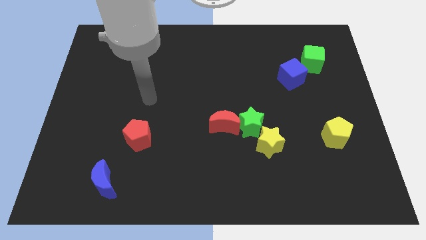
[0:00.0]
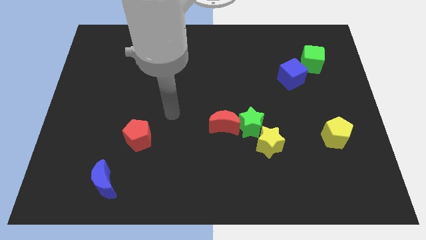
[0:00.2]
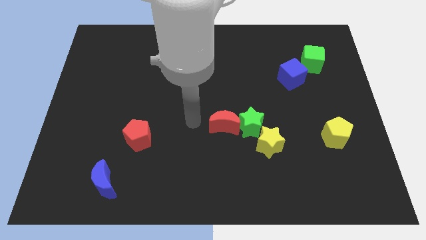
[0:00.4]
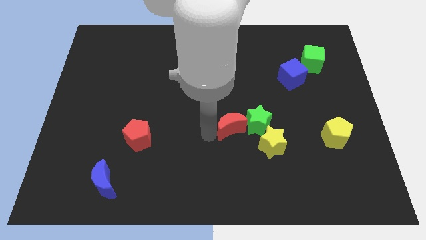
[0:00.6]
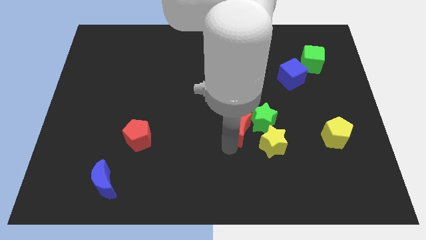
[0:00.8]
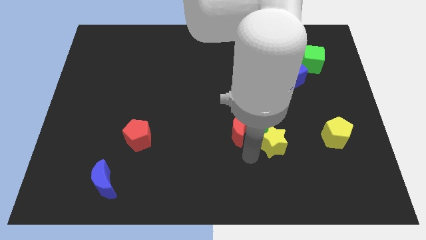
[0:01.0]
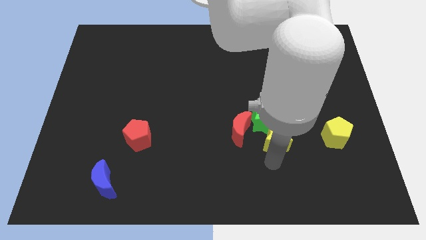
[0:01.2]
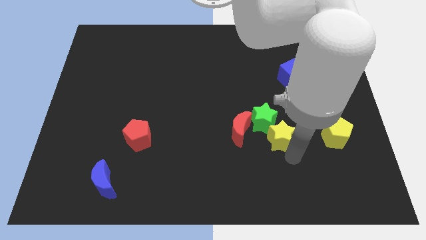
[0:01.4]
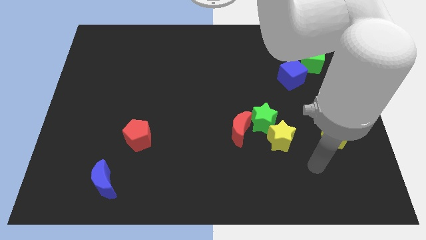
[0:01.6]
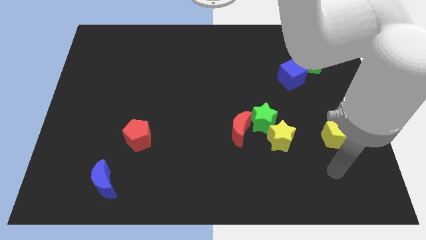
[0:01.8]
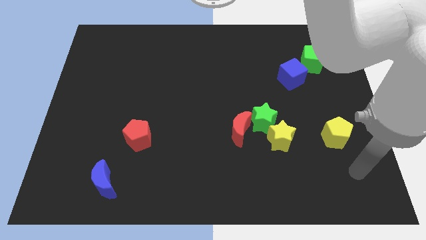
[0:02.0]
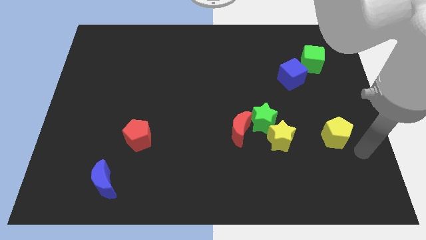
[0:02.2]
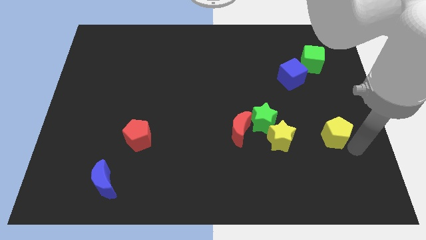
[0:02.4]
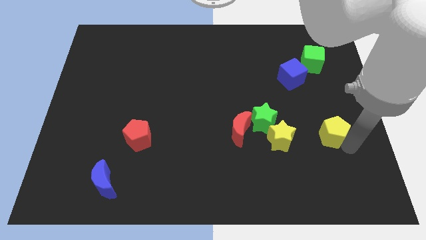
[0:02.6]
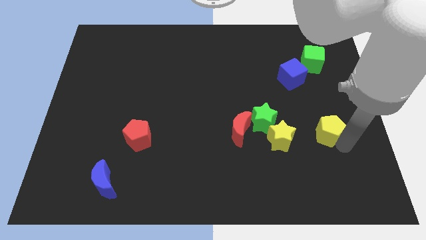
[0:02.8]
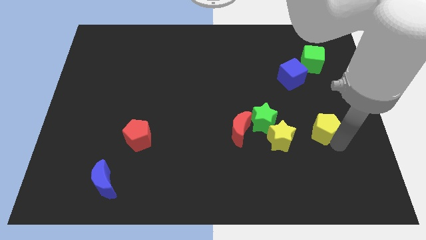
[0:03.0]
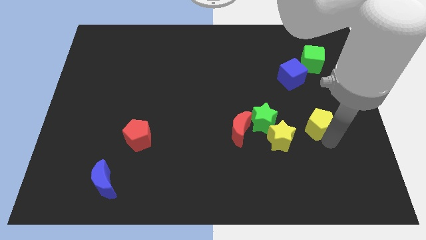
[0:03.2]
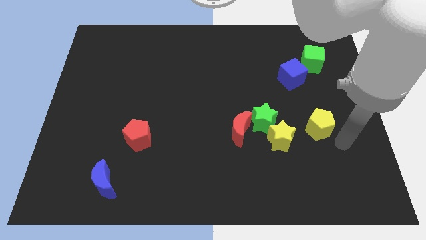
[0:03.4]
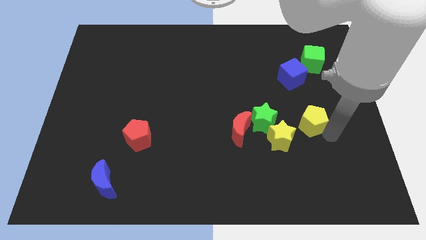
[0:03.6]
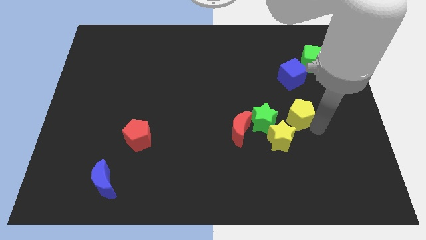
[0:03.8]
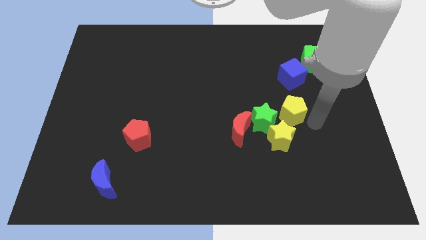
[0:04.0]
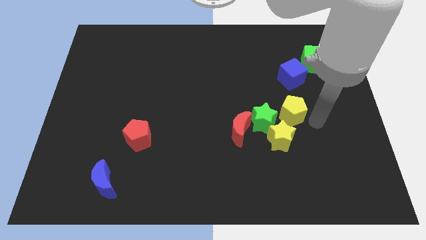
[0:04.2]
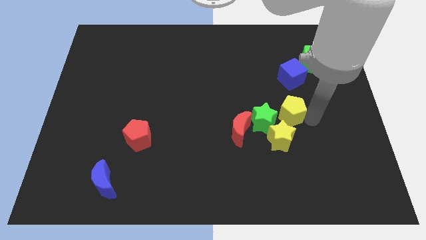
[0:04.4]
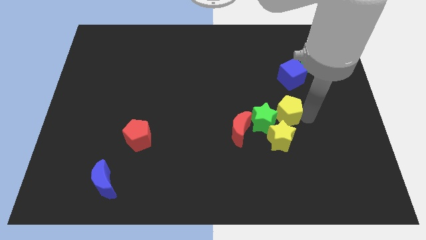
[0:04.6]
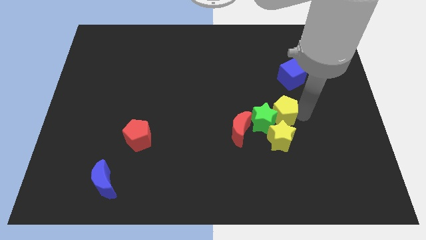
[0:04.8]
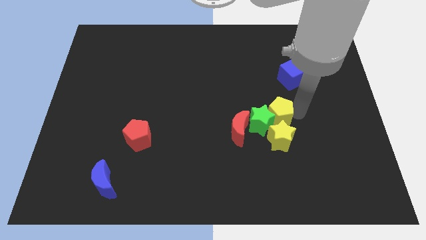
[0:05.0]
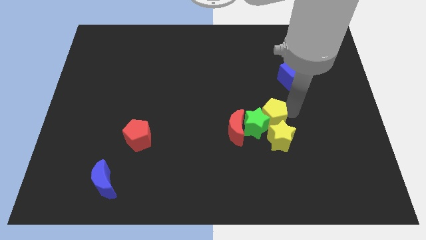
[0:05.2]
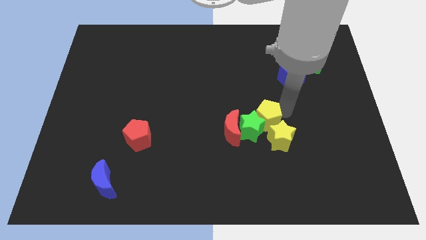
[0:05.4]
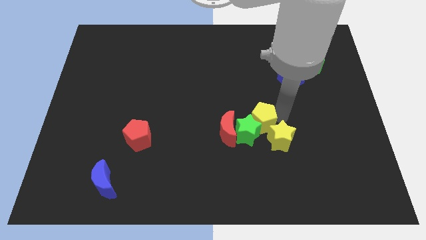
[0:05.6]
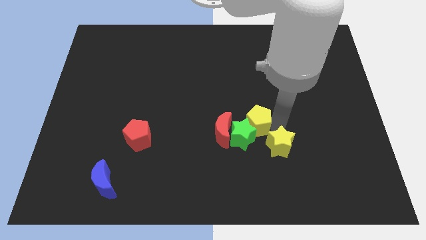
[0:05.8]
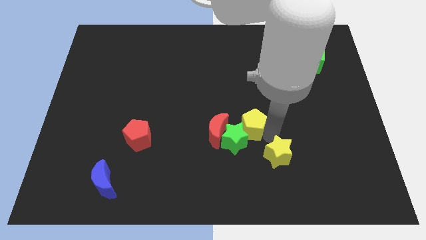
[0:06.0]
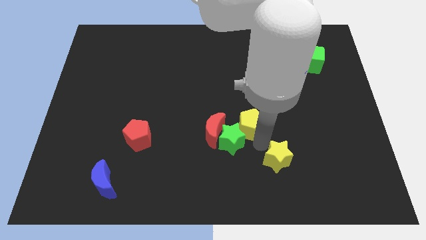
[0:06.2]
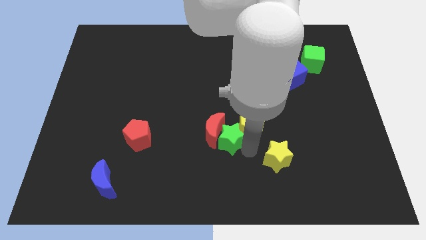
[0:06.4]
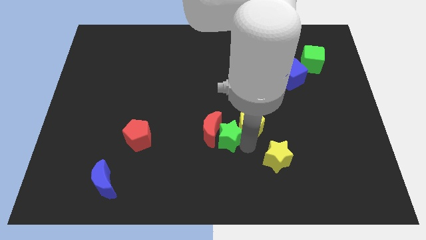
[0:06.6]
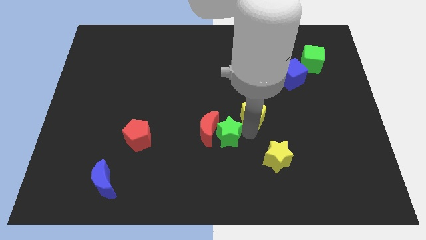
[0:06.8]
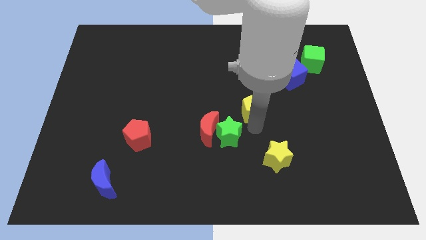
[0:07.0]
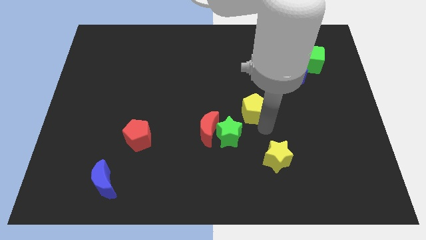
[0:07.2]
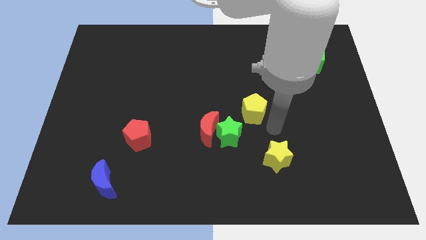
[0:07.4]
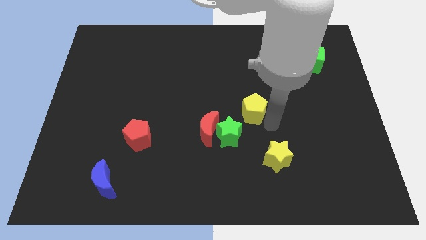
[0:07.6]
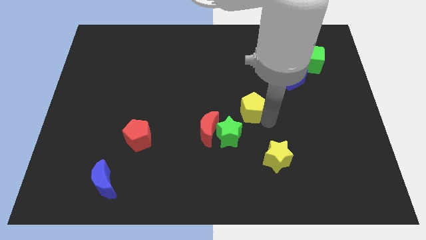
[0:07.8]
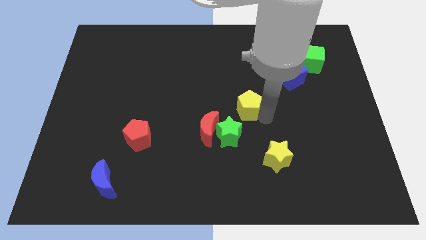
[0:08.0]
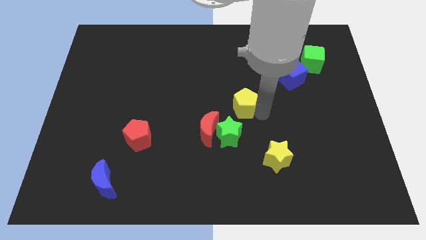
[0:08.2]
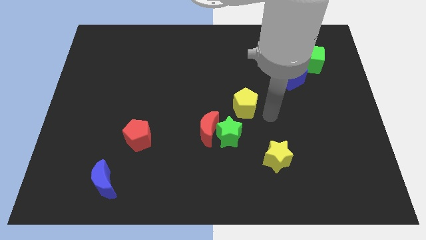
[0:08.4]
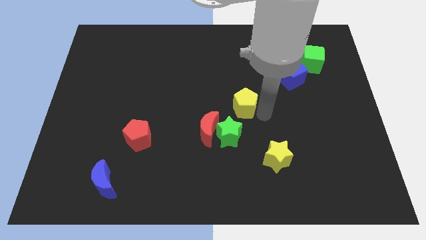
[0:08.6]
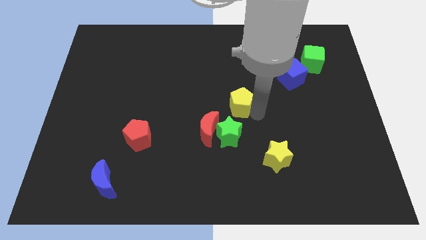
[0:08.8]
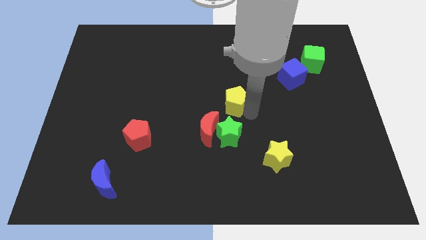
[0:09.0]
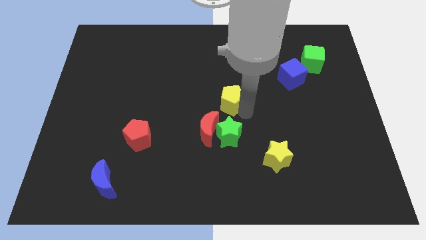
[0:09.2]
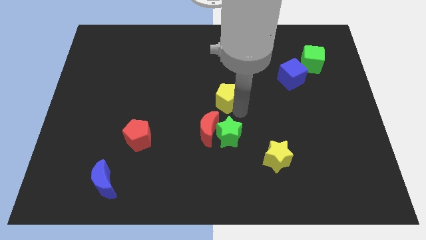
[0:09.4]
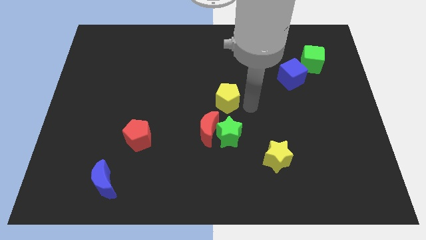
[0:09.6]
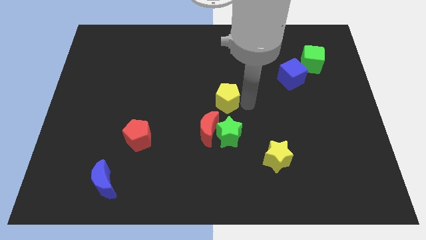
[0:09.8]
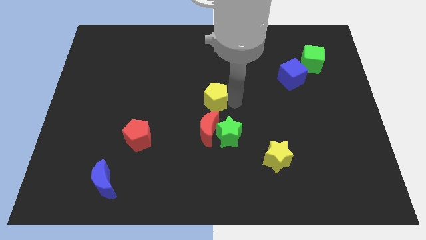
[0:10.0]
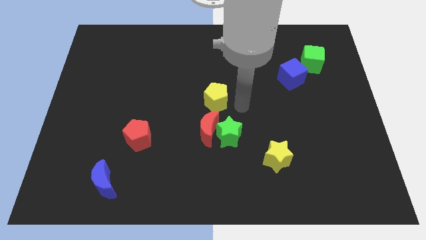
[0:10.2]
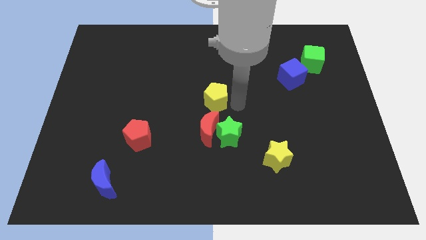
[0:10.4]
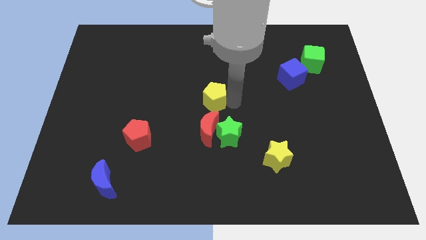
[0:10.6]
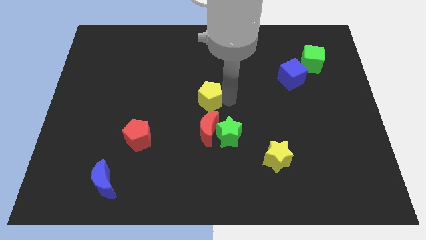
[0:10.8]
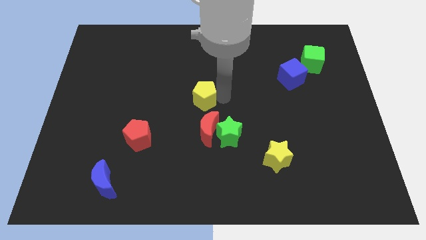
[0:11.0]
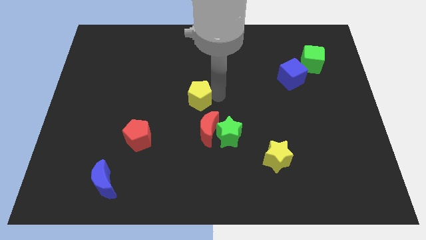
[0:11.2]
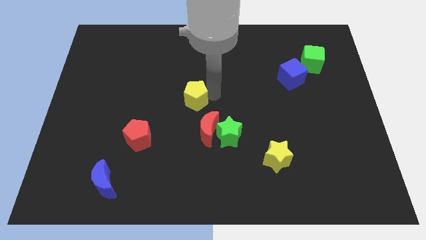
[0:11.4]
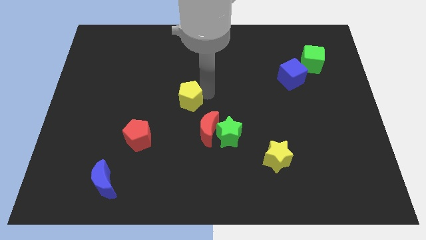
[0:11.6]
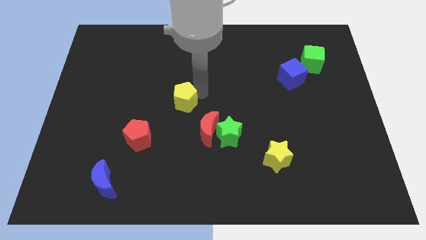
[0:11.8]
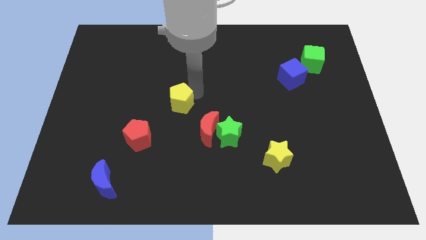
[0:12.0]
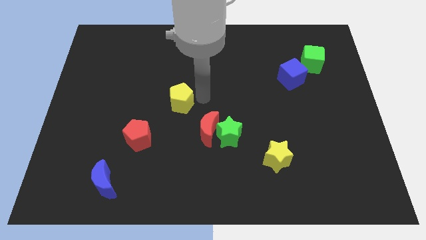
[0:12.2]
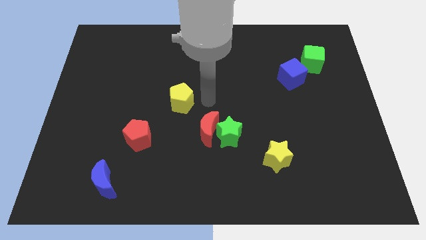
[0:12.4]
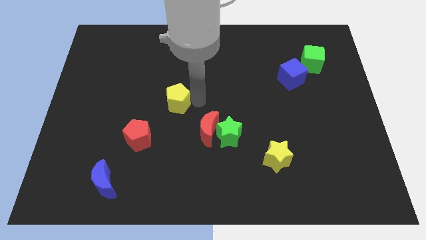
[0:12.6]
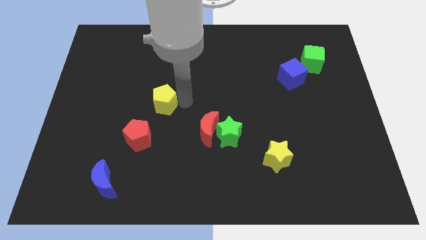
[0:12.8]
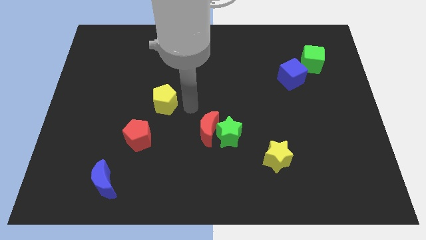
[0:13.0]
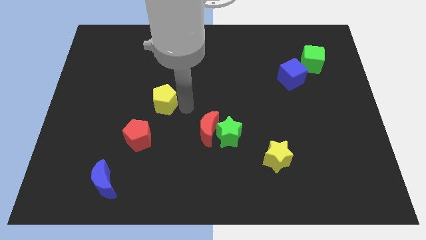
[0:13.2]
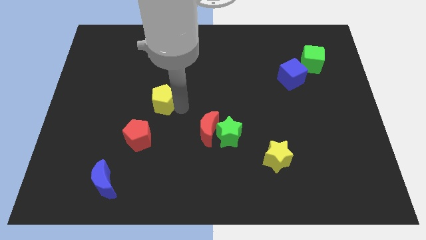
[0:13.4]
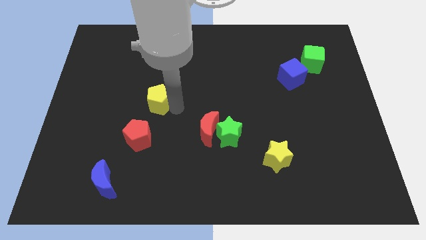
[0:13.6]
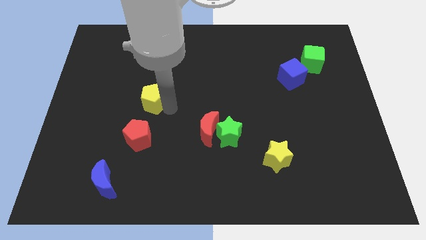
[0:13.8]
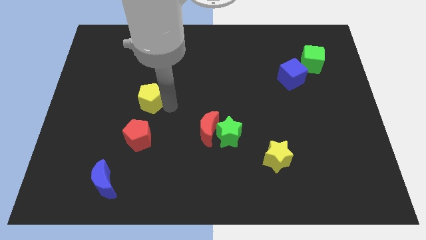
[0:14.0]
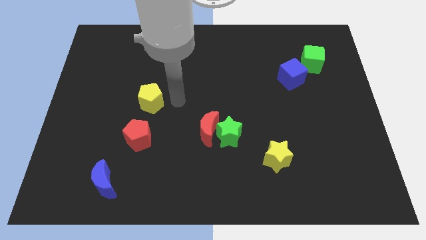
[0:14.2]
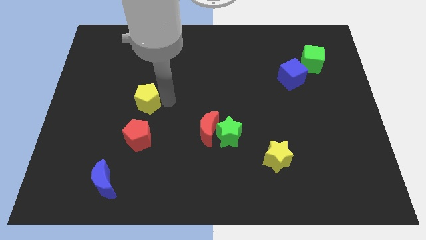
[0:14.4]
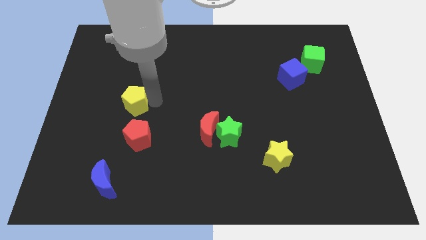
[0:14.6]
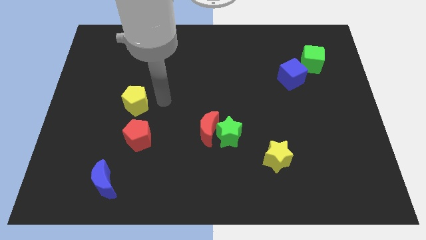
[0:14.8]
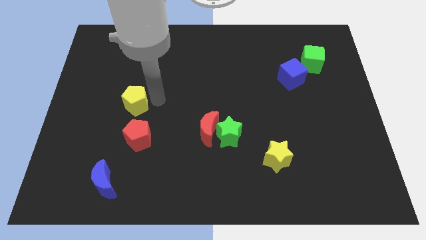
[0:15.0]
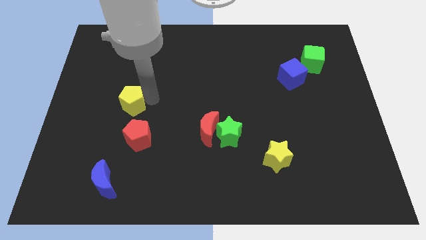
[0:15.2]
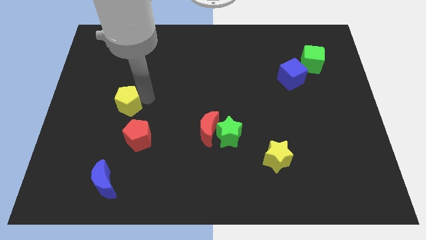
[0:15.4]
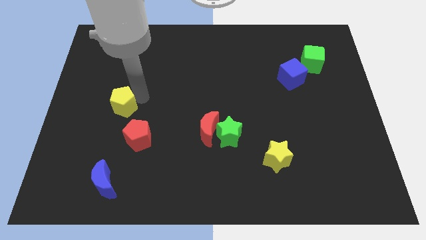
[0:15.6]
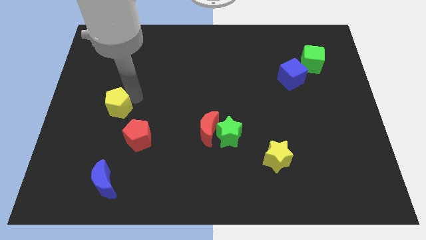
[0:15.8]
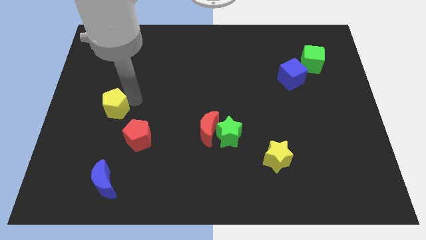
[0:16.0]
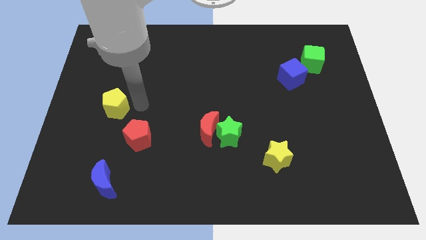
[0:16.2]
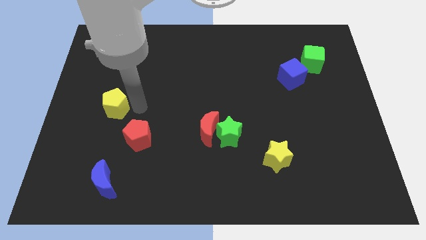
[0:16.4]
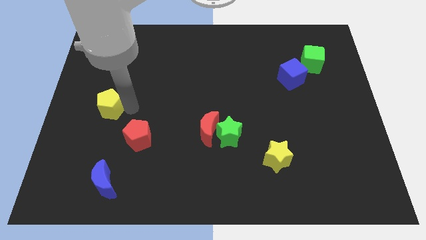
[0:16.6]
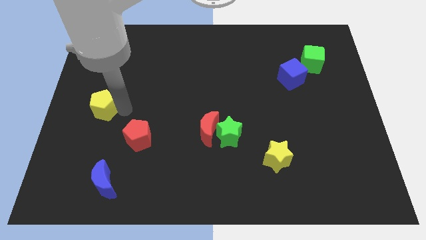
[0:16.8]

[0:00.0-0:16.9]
slide the yellow pentagon to the left side of the board
